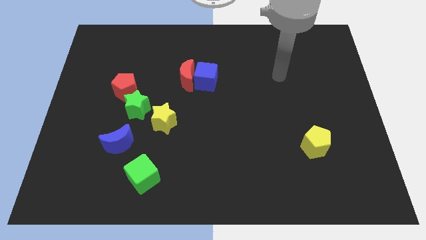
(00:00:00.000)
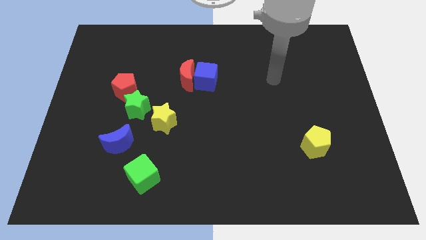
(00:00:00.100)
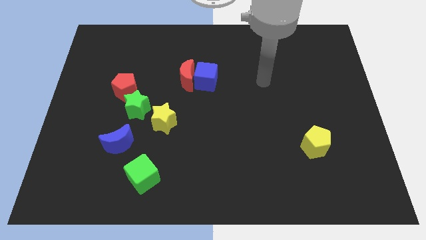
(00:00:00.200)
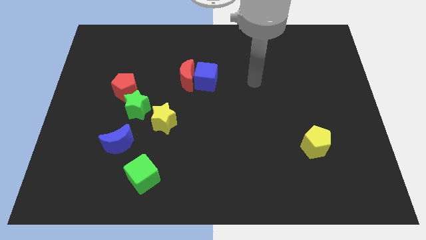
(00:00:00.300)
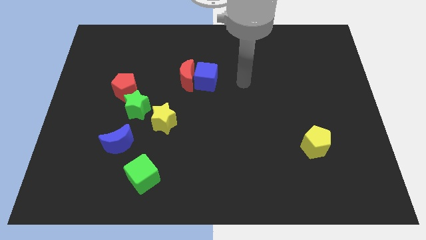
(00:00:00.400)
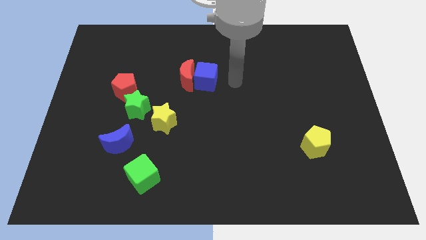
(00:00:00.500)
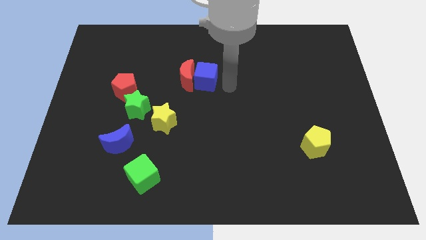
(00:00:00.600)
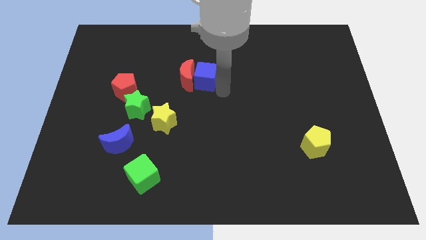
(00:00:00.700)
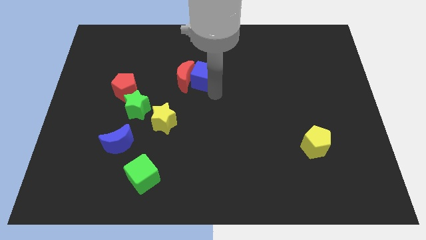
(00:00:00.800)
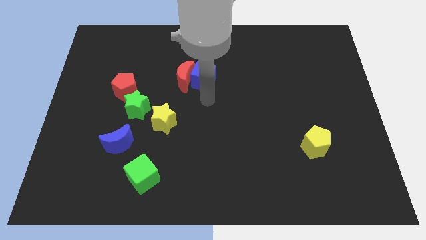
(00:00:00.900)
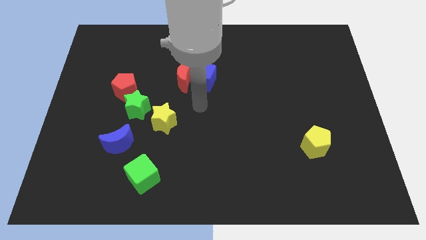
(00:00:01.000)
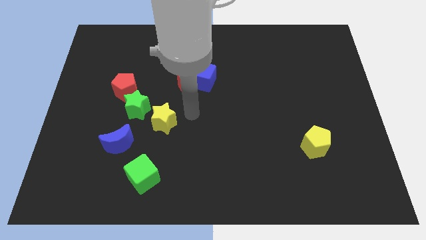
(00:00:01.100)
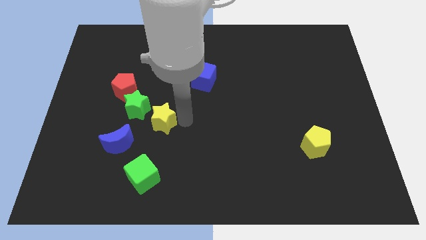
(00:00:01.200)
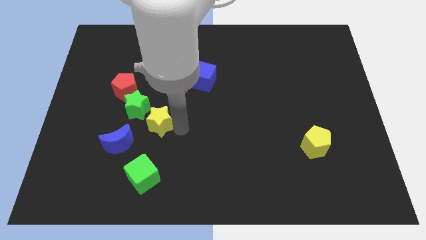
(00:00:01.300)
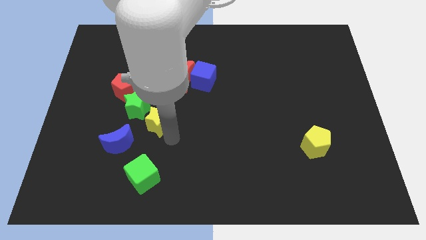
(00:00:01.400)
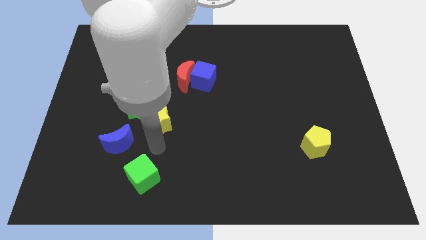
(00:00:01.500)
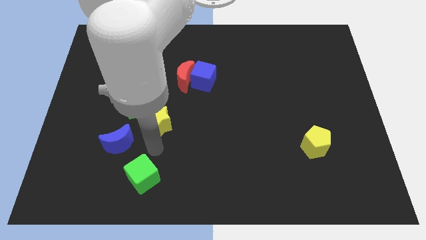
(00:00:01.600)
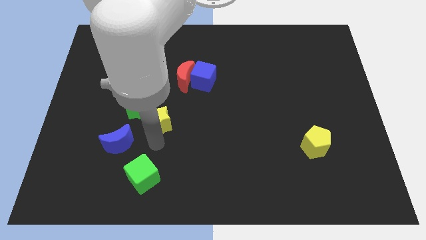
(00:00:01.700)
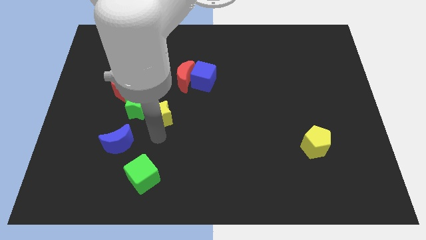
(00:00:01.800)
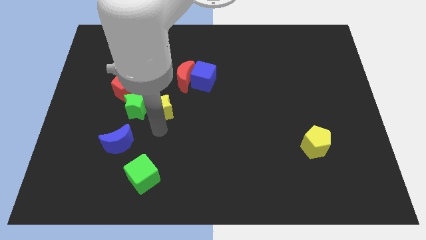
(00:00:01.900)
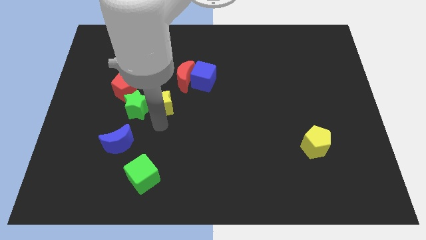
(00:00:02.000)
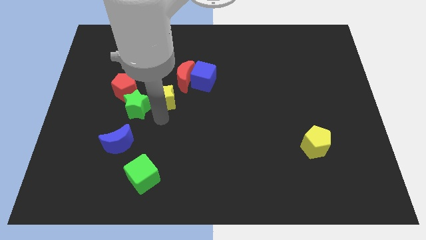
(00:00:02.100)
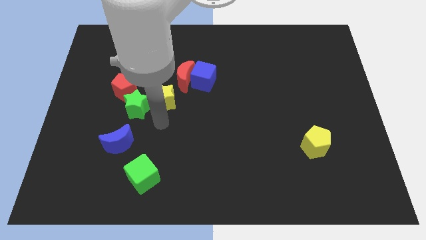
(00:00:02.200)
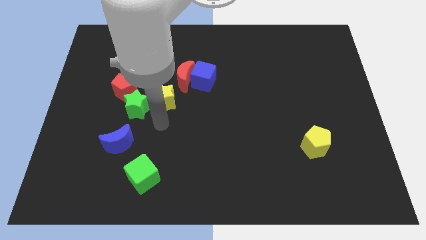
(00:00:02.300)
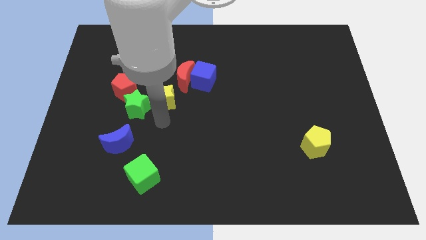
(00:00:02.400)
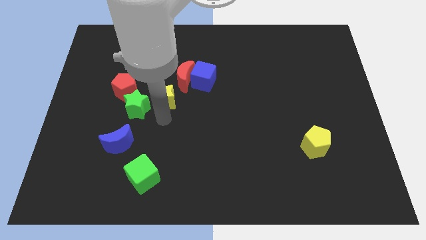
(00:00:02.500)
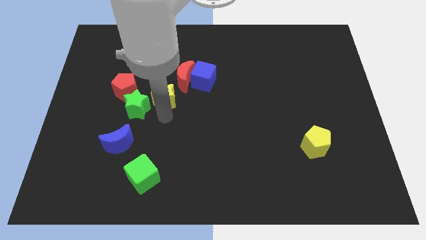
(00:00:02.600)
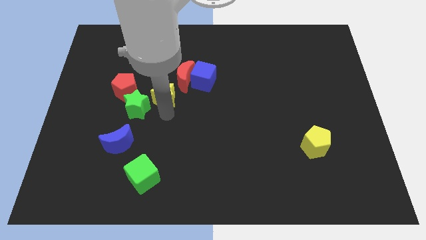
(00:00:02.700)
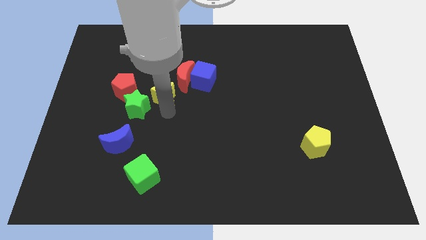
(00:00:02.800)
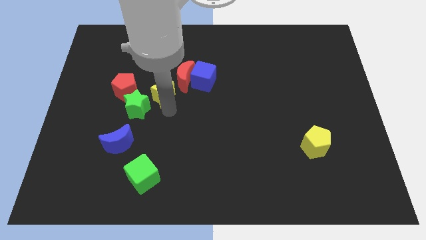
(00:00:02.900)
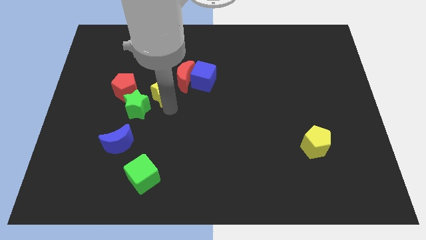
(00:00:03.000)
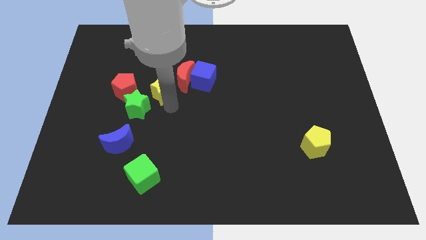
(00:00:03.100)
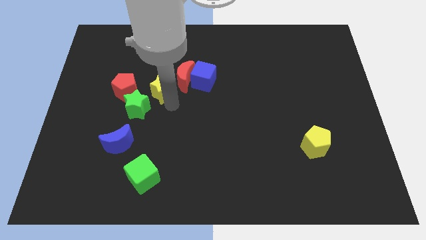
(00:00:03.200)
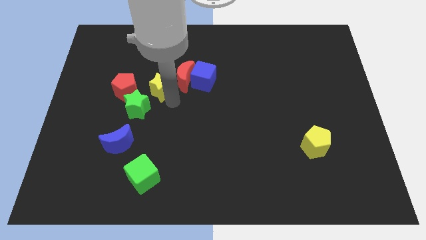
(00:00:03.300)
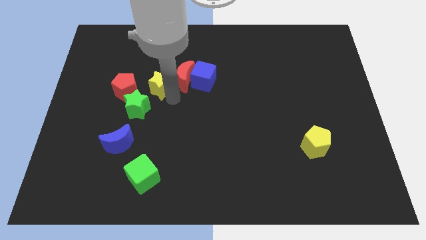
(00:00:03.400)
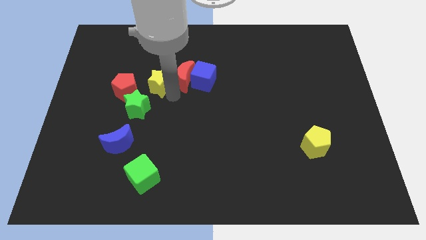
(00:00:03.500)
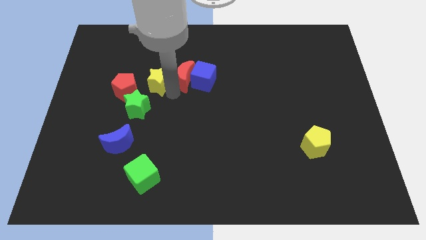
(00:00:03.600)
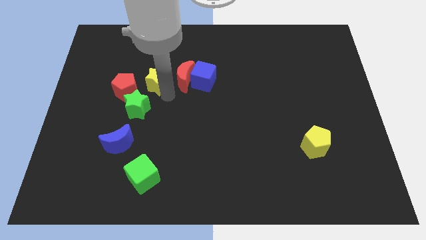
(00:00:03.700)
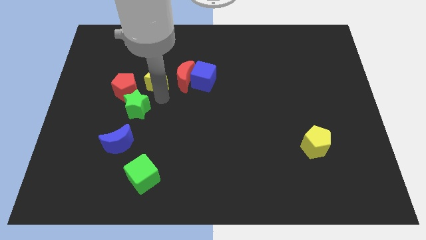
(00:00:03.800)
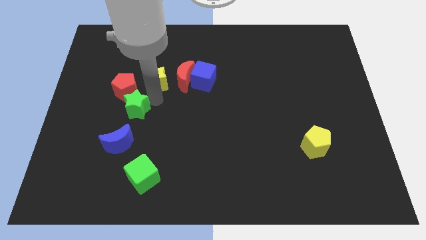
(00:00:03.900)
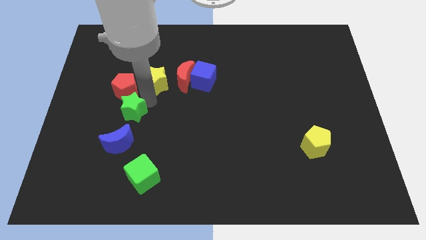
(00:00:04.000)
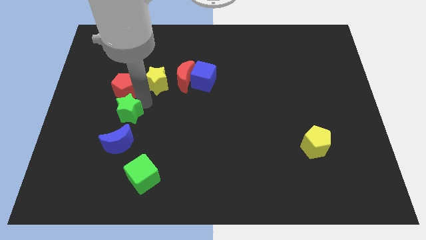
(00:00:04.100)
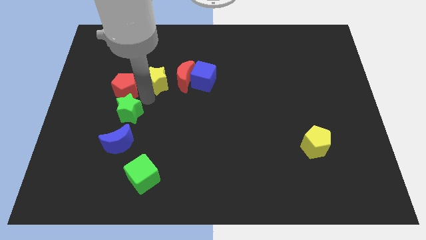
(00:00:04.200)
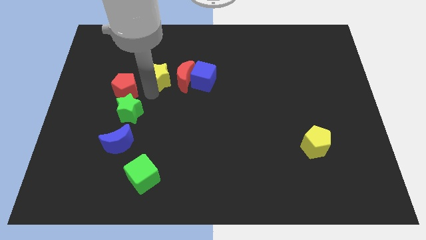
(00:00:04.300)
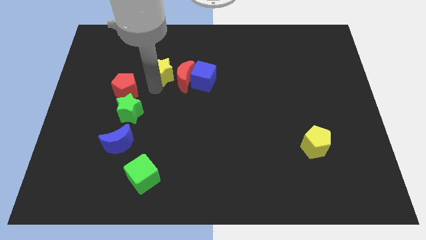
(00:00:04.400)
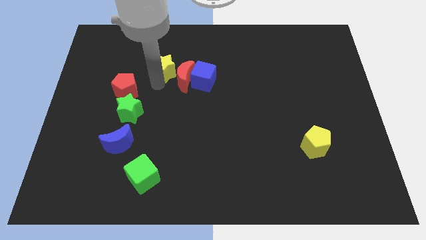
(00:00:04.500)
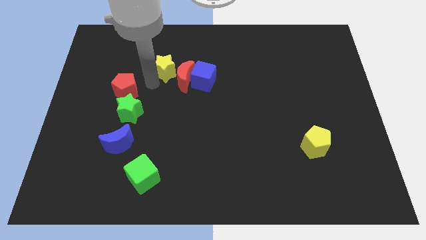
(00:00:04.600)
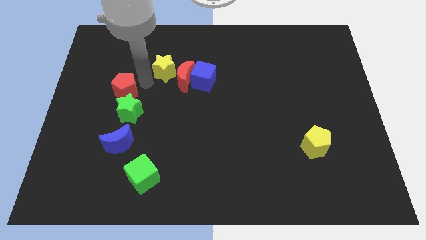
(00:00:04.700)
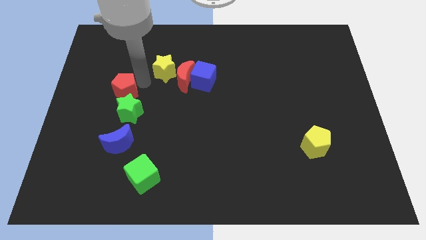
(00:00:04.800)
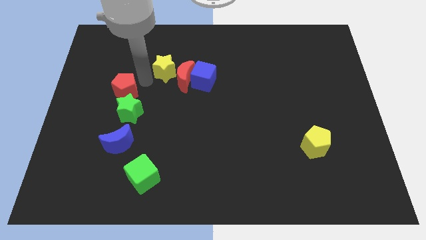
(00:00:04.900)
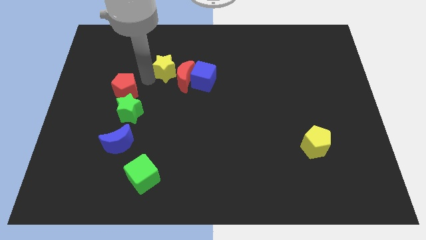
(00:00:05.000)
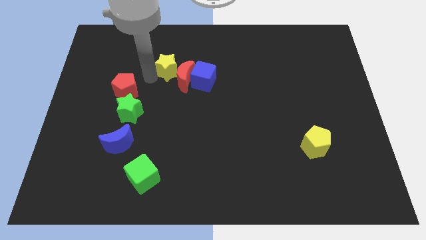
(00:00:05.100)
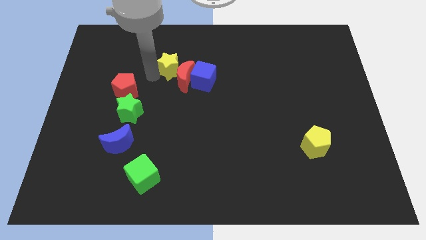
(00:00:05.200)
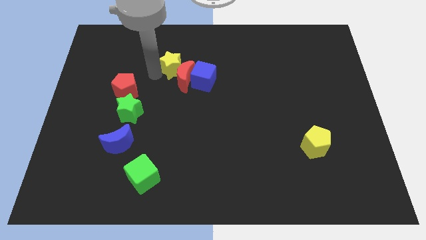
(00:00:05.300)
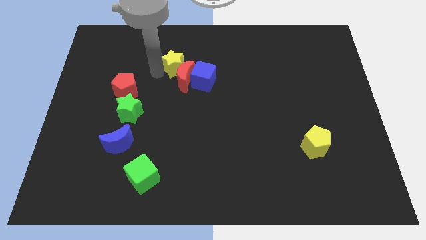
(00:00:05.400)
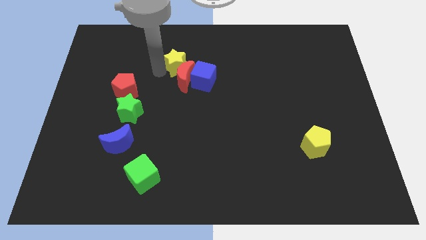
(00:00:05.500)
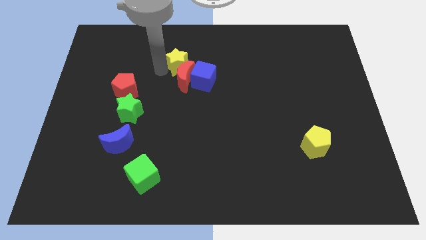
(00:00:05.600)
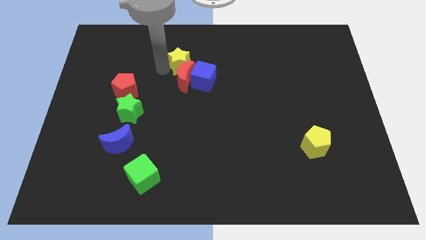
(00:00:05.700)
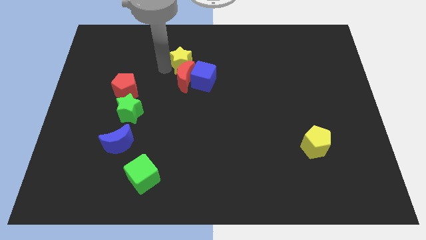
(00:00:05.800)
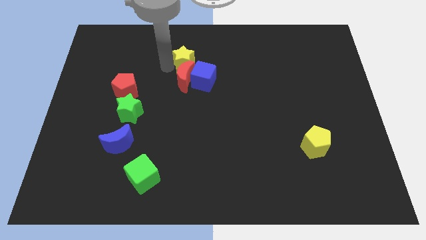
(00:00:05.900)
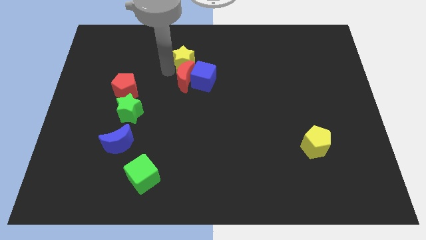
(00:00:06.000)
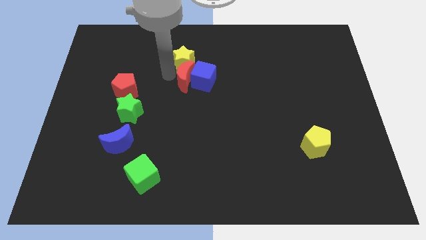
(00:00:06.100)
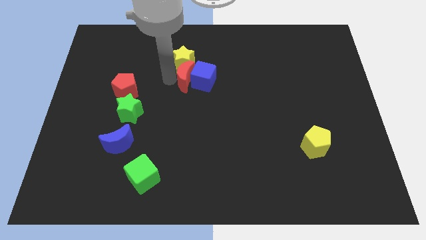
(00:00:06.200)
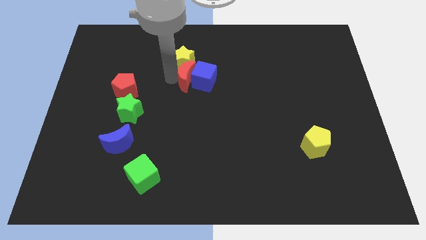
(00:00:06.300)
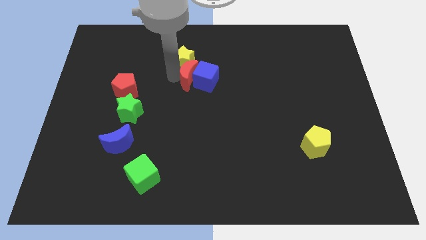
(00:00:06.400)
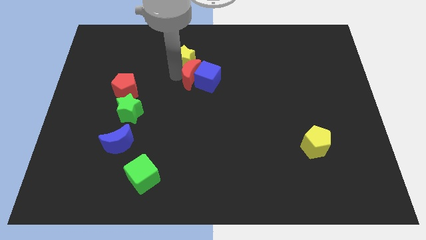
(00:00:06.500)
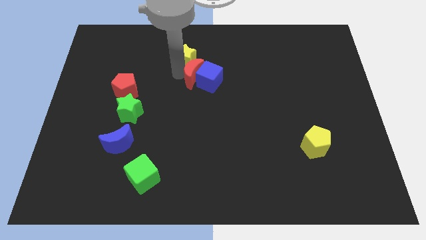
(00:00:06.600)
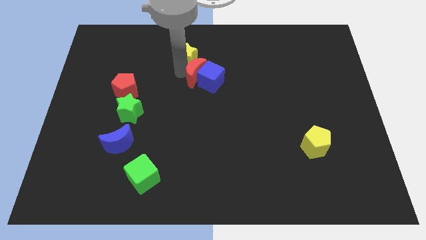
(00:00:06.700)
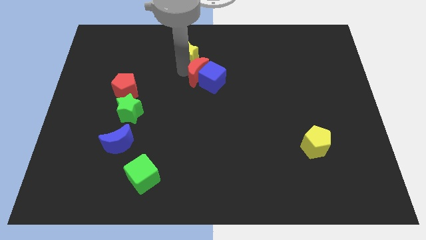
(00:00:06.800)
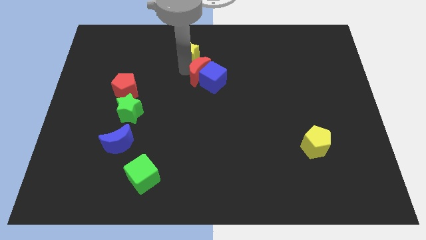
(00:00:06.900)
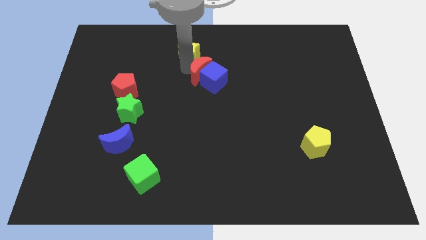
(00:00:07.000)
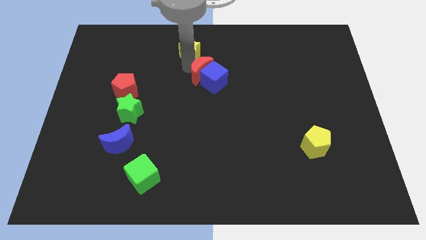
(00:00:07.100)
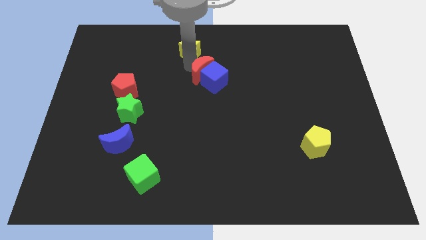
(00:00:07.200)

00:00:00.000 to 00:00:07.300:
slide the yellow star to the towards your base

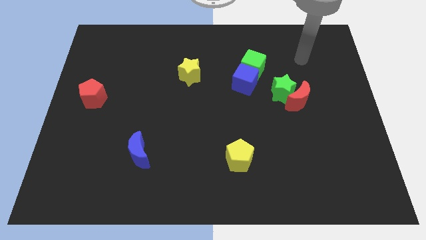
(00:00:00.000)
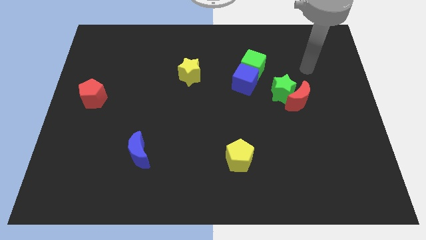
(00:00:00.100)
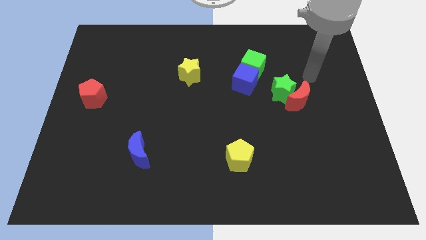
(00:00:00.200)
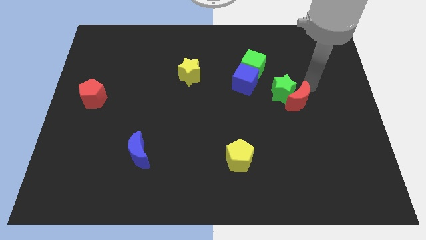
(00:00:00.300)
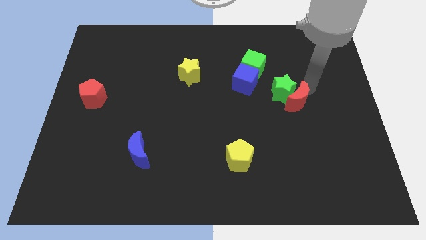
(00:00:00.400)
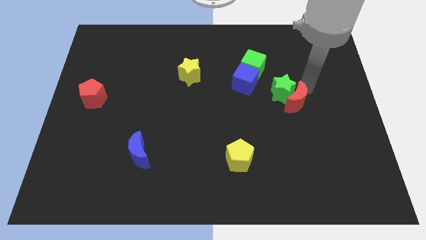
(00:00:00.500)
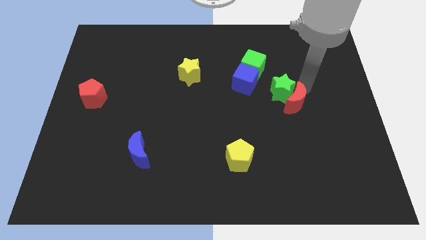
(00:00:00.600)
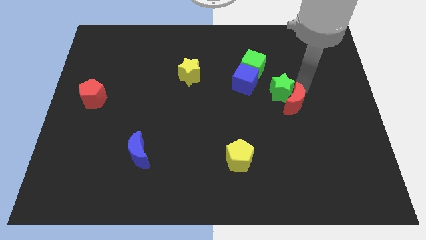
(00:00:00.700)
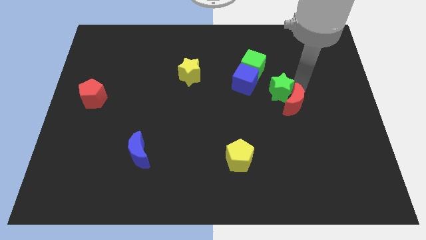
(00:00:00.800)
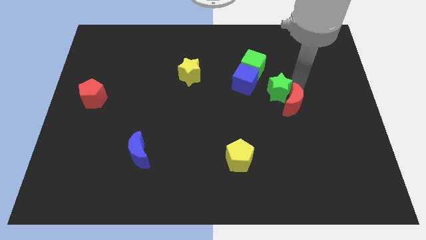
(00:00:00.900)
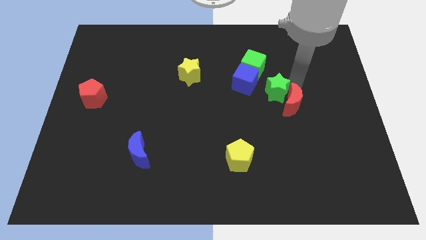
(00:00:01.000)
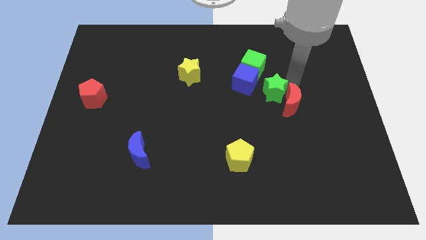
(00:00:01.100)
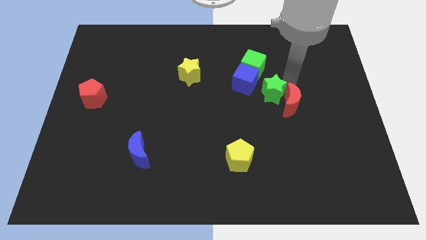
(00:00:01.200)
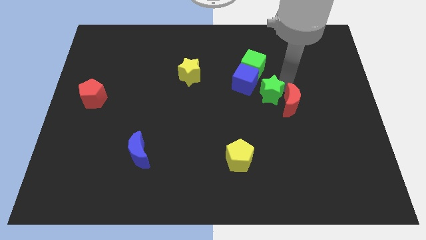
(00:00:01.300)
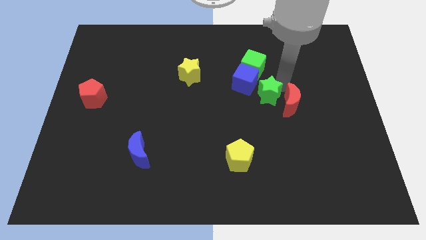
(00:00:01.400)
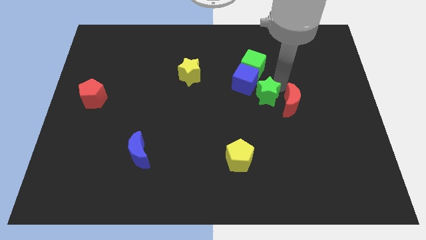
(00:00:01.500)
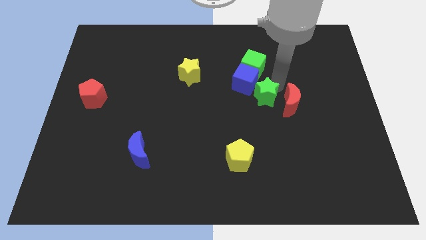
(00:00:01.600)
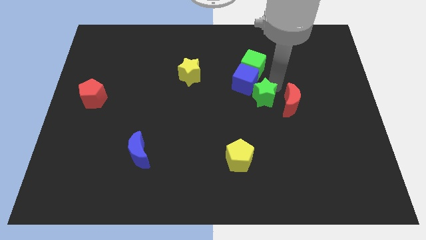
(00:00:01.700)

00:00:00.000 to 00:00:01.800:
slide the green star to the middle
